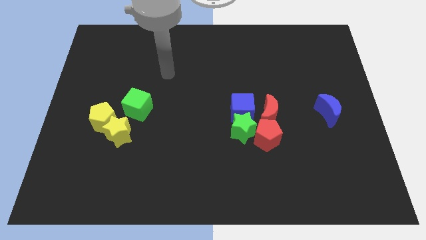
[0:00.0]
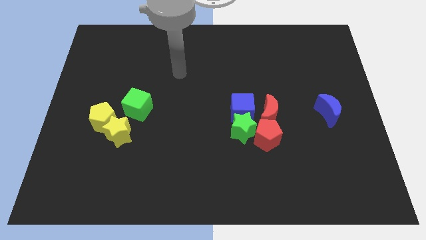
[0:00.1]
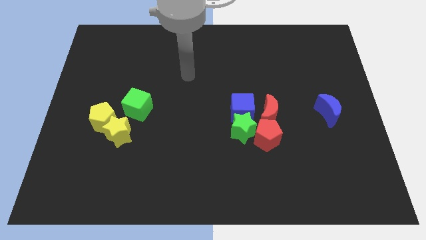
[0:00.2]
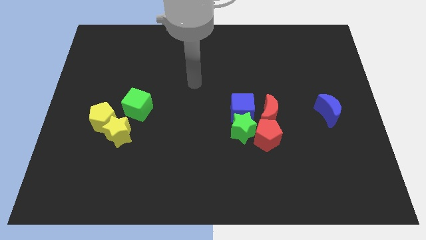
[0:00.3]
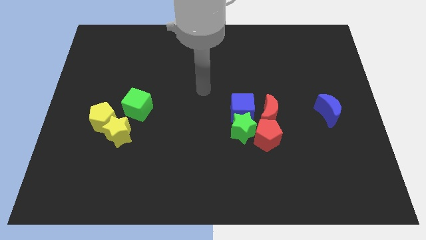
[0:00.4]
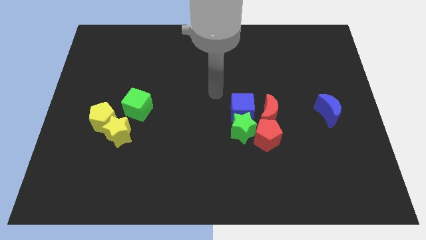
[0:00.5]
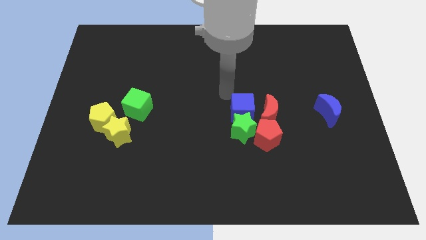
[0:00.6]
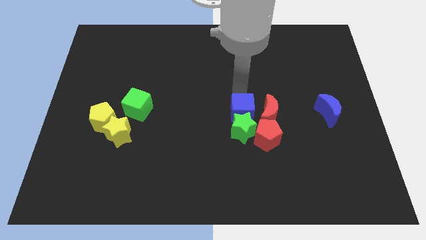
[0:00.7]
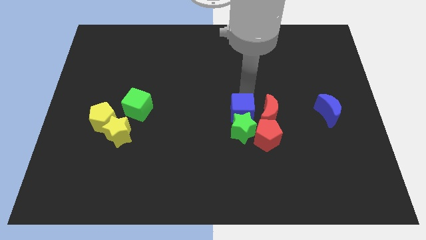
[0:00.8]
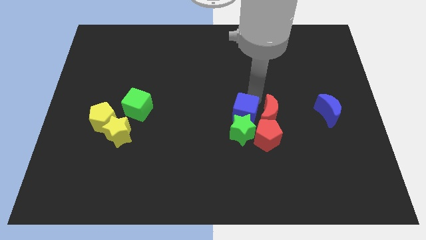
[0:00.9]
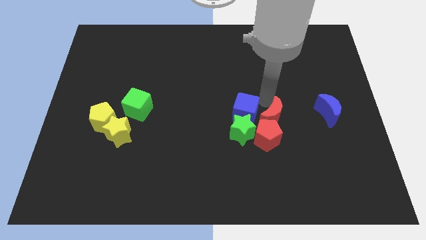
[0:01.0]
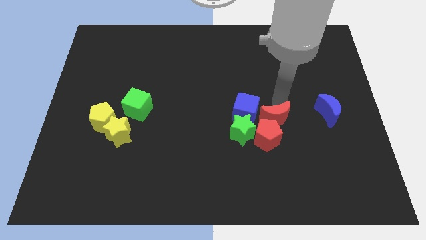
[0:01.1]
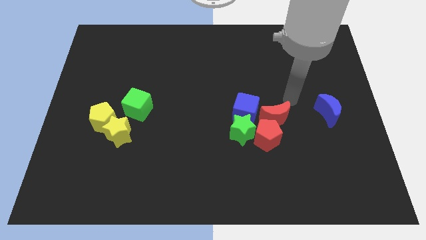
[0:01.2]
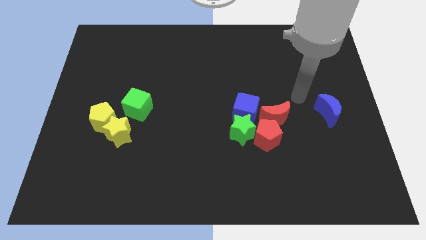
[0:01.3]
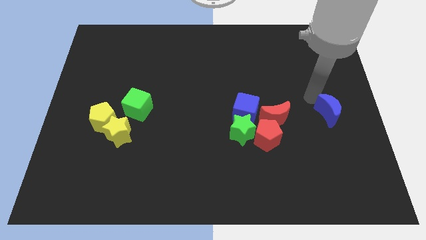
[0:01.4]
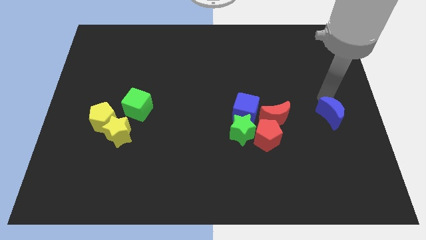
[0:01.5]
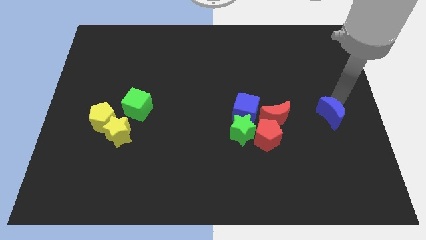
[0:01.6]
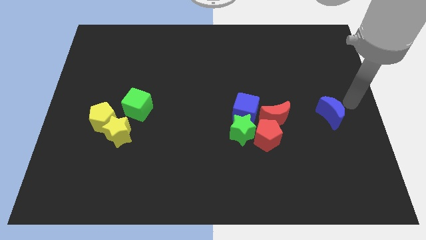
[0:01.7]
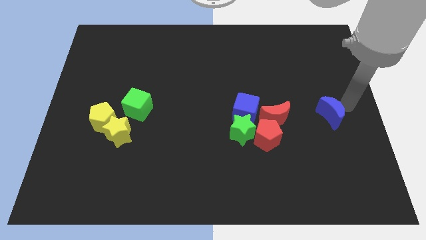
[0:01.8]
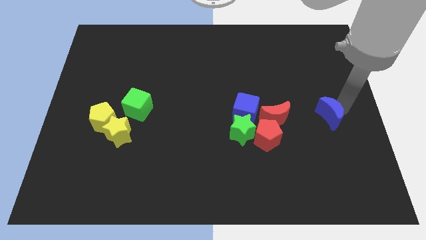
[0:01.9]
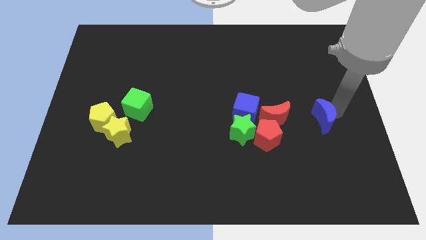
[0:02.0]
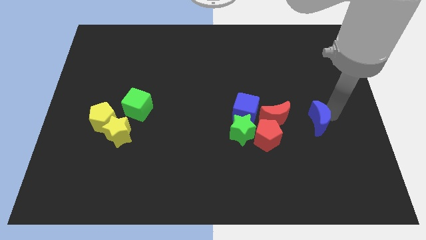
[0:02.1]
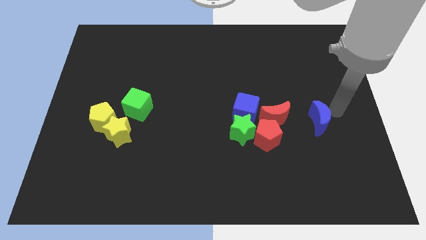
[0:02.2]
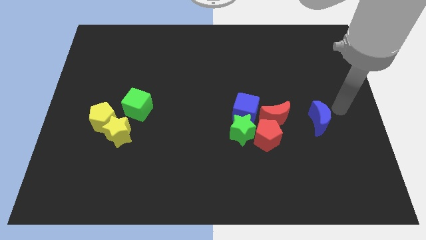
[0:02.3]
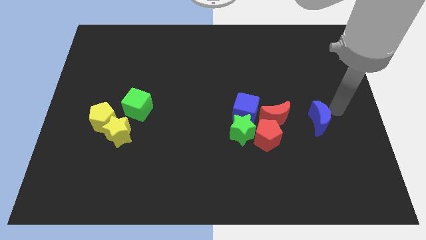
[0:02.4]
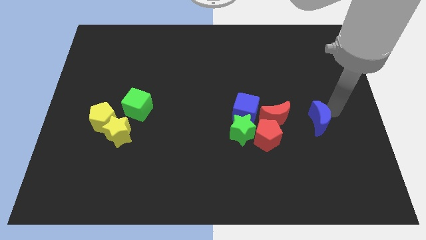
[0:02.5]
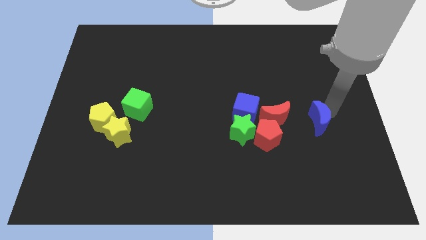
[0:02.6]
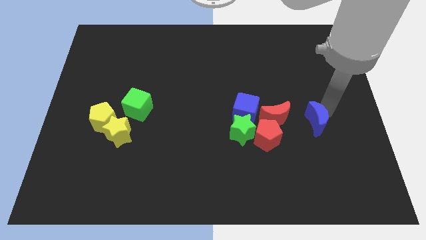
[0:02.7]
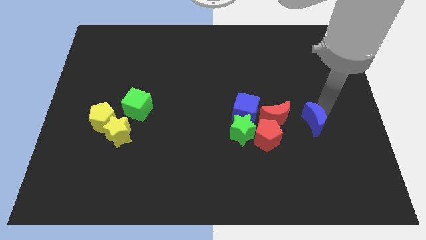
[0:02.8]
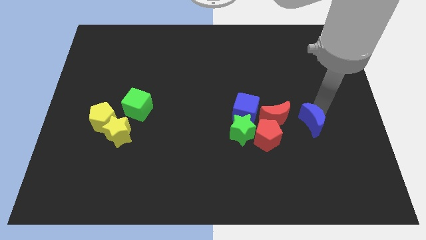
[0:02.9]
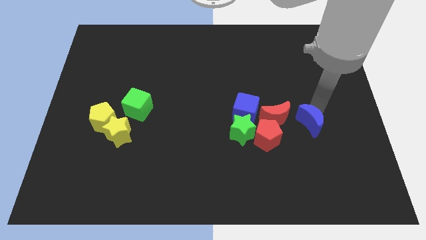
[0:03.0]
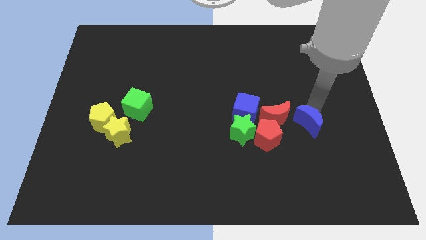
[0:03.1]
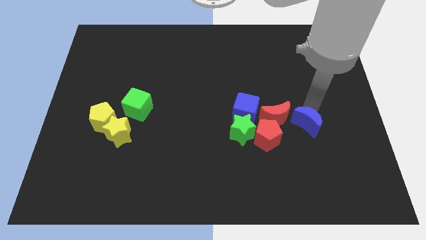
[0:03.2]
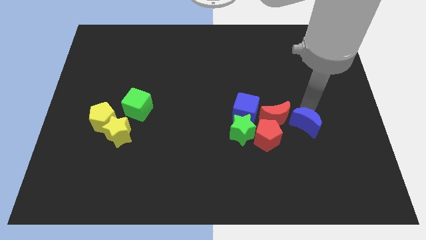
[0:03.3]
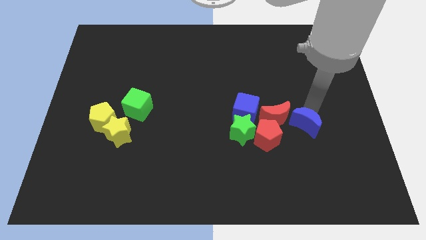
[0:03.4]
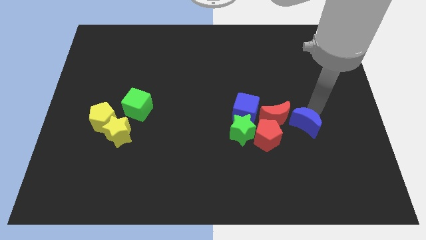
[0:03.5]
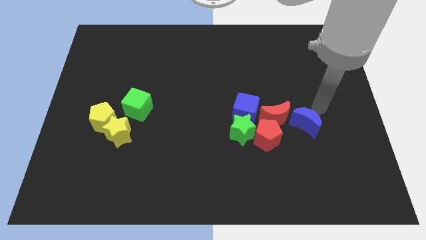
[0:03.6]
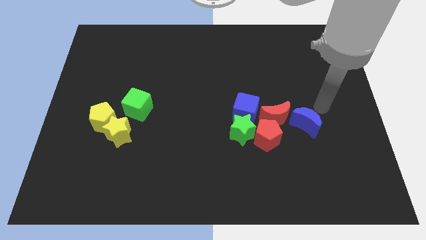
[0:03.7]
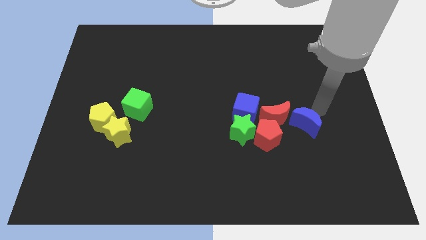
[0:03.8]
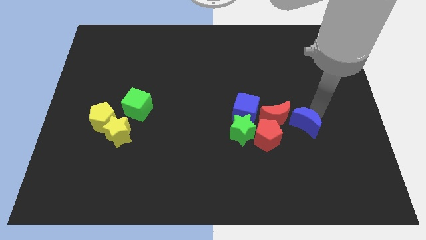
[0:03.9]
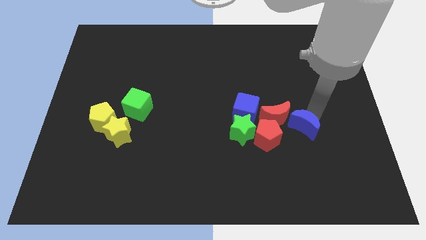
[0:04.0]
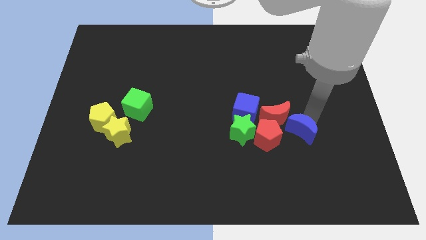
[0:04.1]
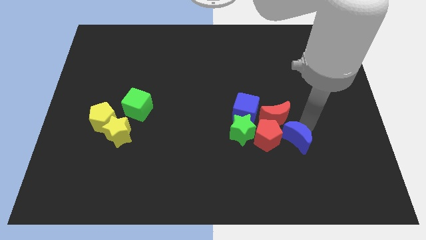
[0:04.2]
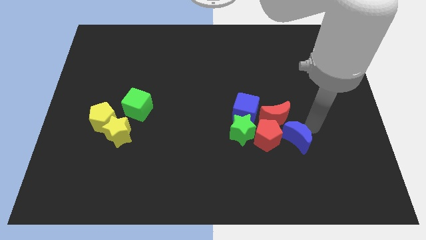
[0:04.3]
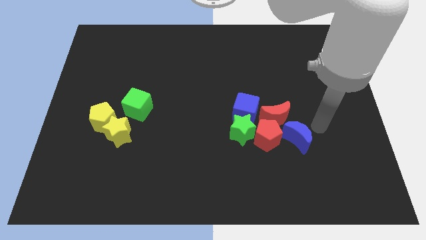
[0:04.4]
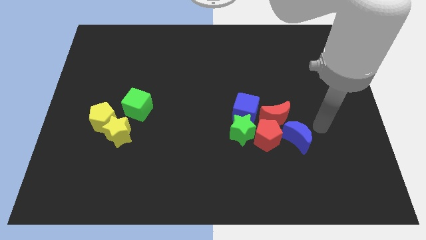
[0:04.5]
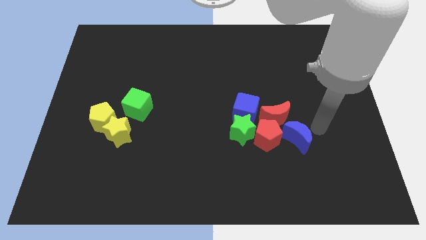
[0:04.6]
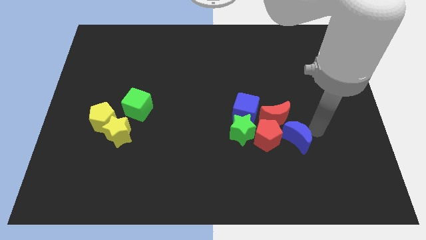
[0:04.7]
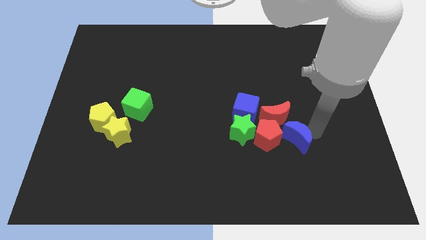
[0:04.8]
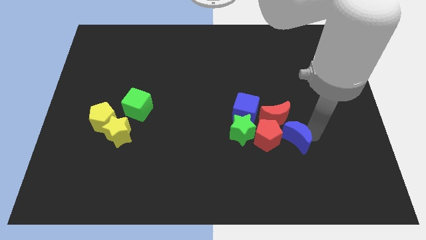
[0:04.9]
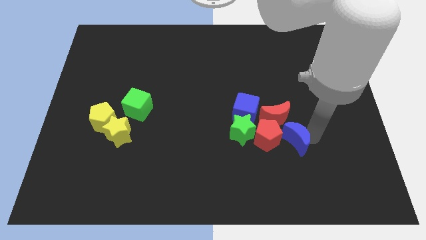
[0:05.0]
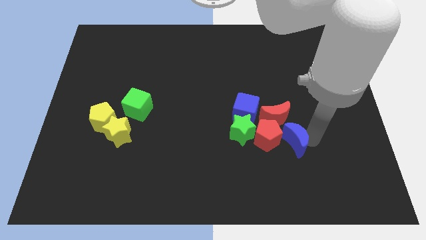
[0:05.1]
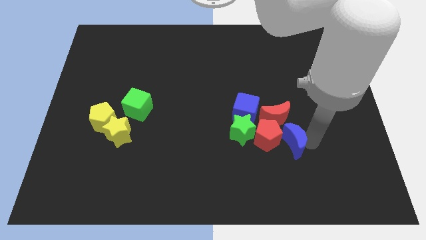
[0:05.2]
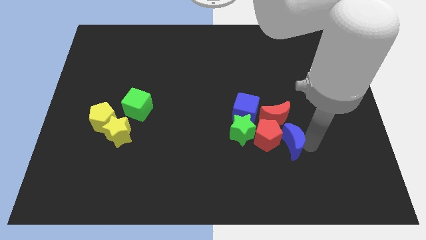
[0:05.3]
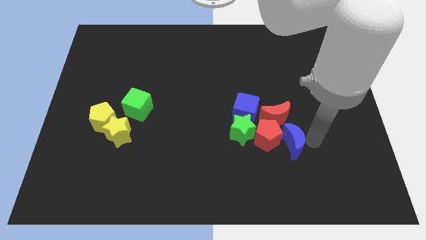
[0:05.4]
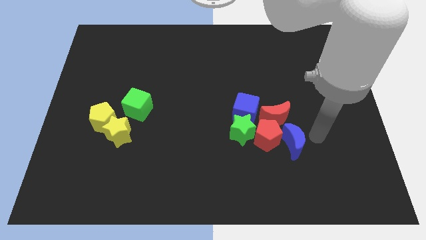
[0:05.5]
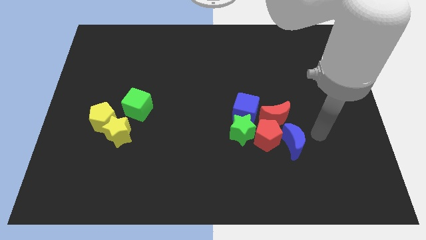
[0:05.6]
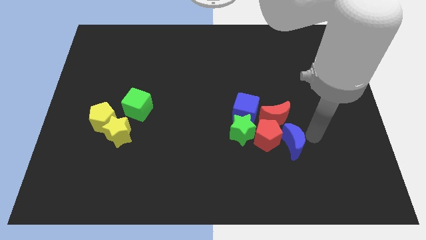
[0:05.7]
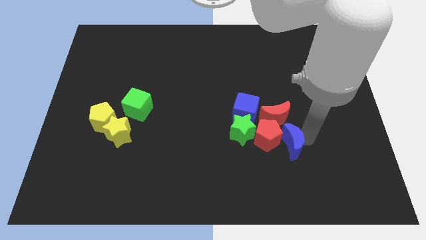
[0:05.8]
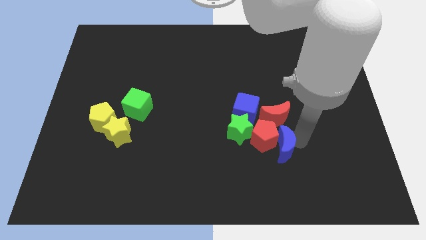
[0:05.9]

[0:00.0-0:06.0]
slide the blue moon to the bottom right of the green star

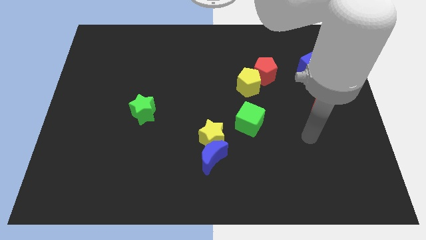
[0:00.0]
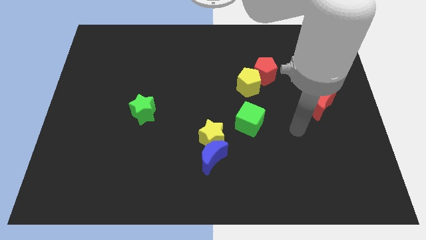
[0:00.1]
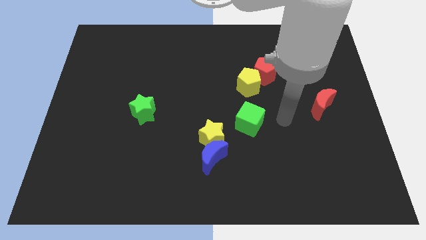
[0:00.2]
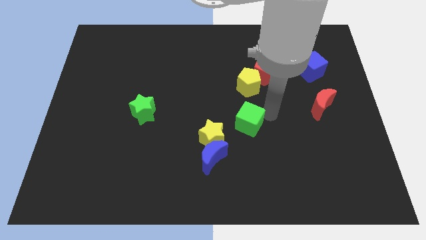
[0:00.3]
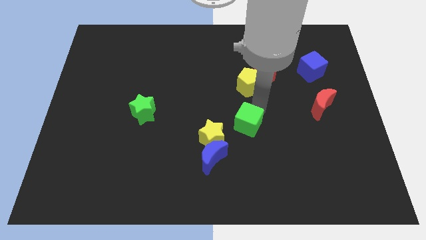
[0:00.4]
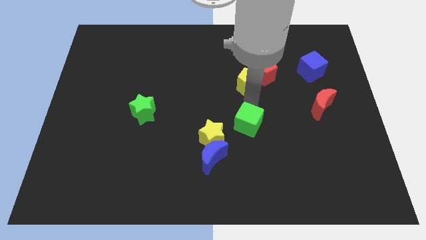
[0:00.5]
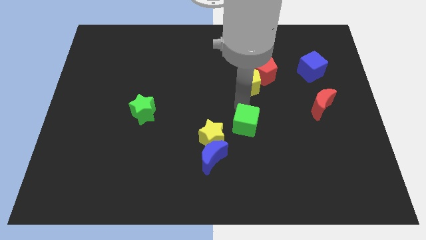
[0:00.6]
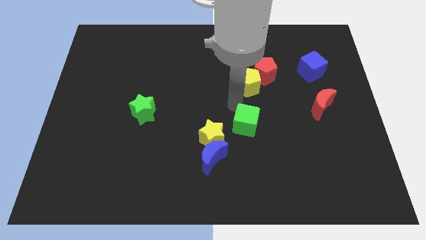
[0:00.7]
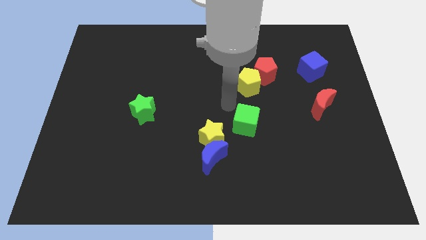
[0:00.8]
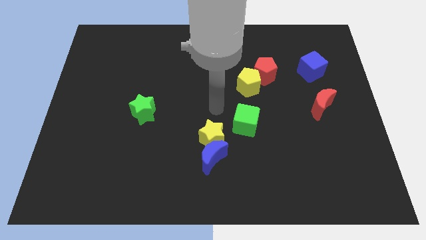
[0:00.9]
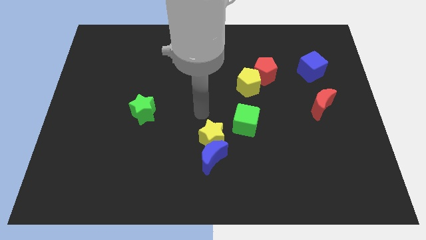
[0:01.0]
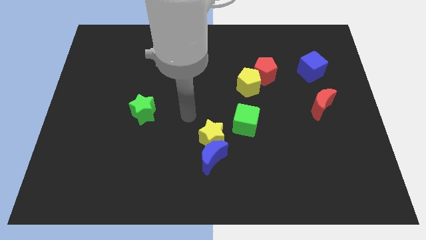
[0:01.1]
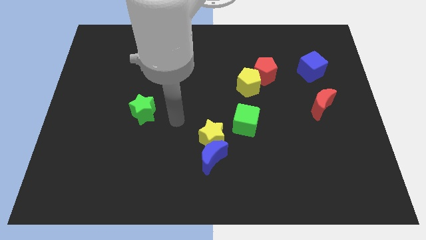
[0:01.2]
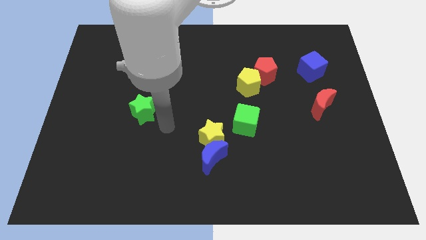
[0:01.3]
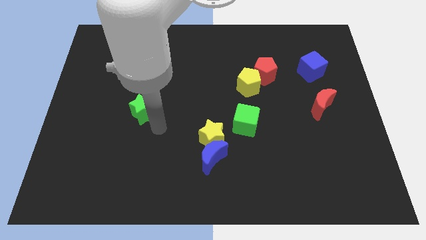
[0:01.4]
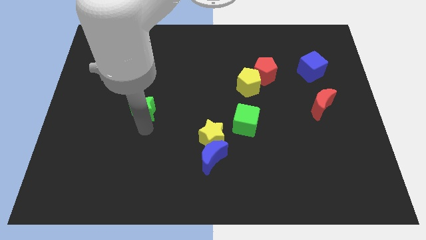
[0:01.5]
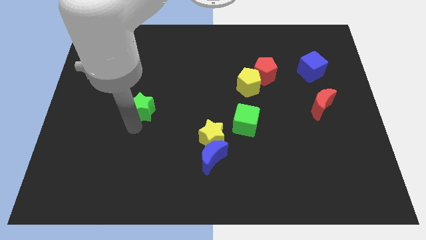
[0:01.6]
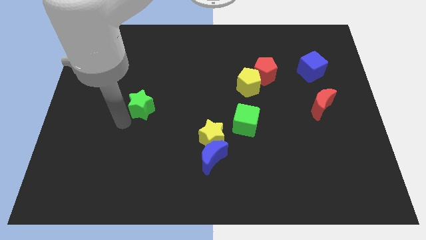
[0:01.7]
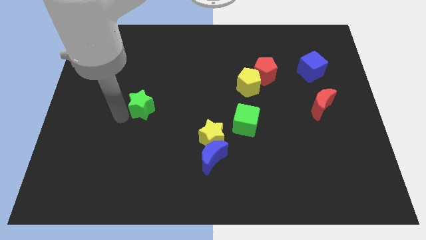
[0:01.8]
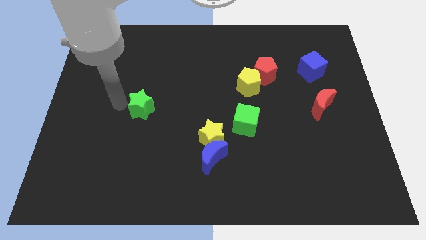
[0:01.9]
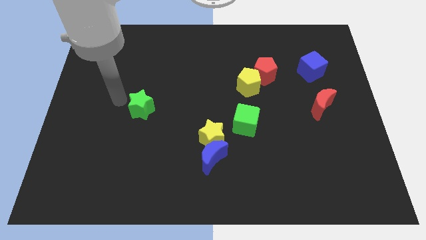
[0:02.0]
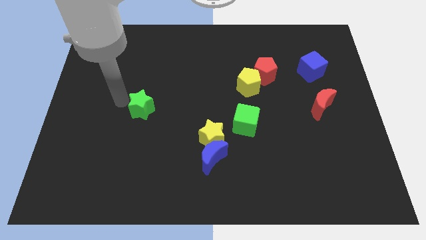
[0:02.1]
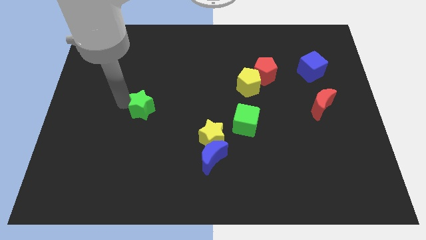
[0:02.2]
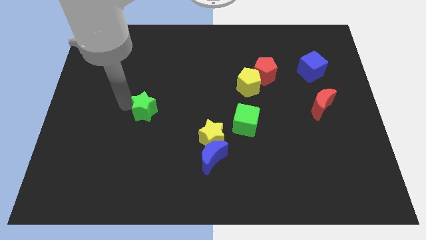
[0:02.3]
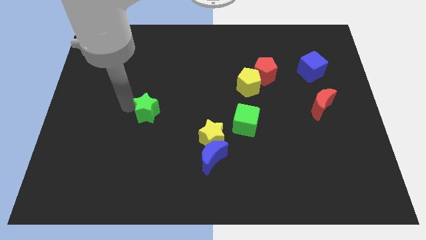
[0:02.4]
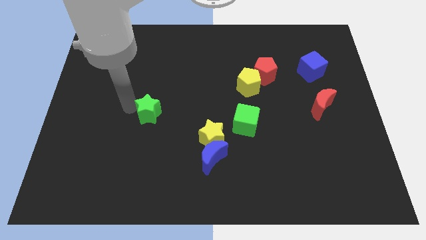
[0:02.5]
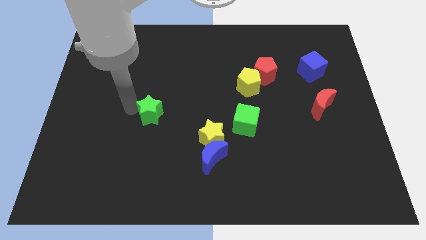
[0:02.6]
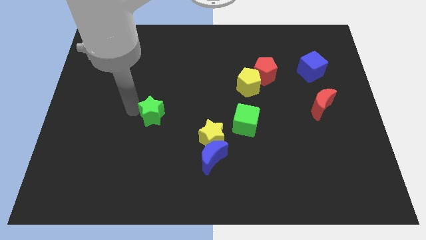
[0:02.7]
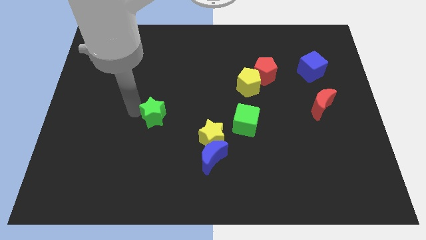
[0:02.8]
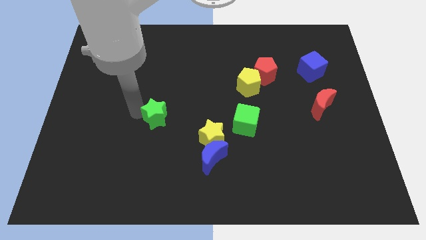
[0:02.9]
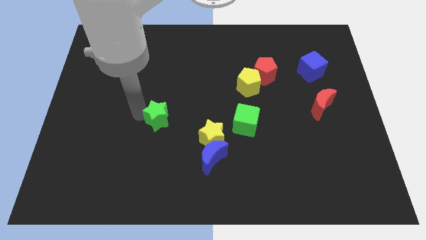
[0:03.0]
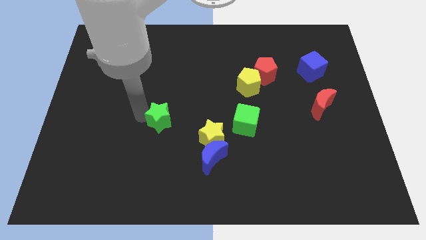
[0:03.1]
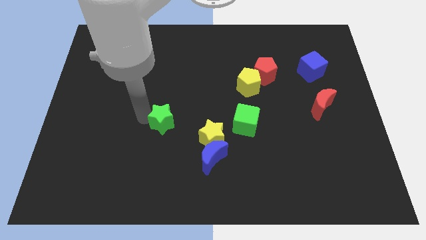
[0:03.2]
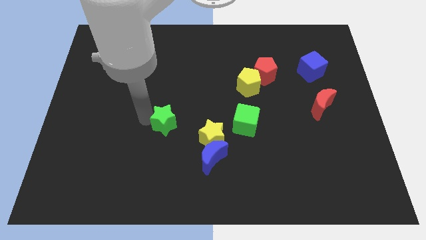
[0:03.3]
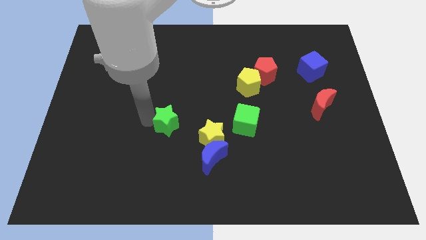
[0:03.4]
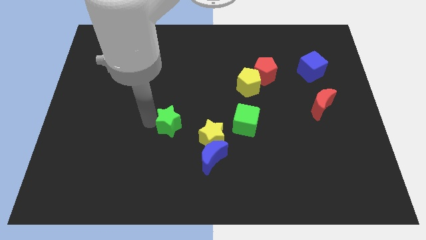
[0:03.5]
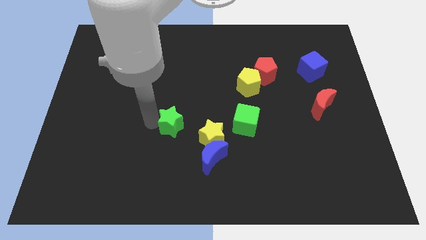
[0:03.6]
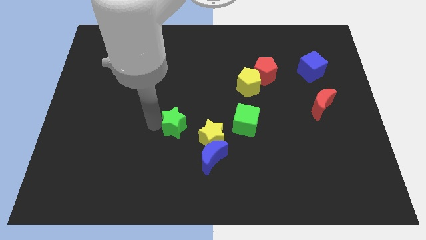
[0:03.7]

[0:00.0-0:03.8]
move the green star to the left of the green cube
